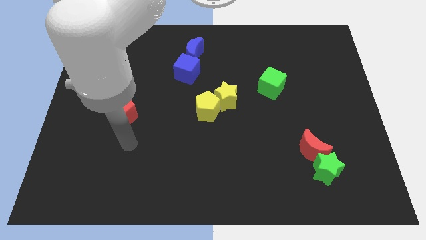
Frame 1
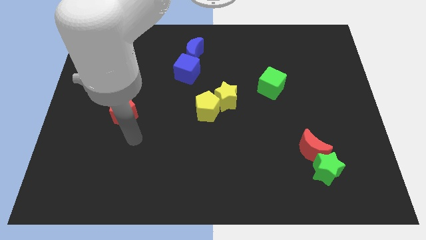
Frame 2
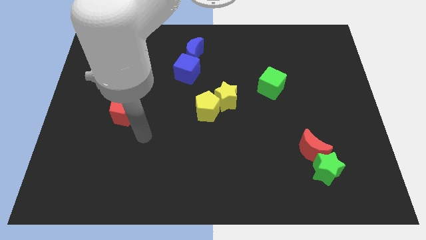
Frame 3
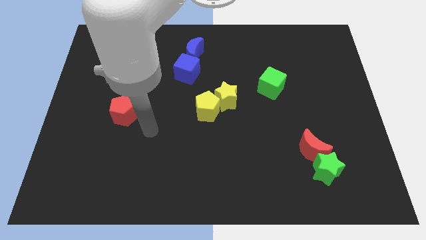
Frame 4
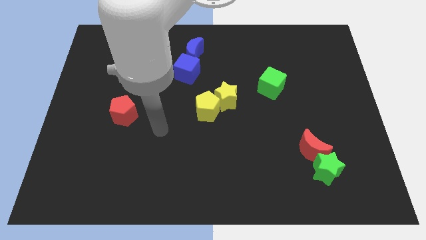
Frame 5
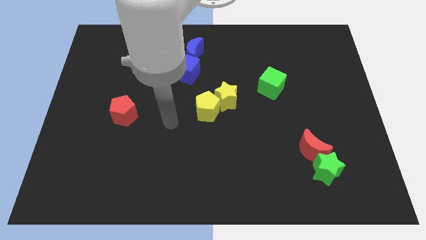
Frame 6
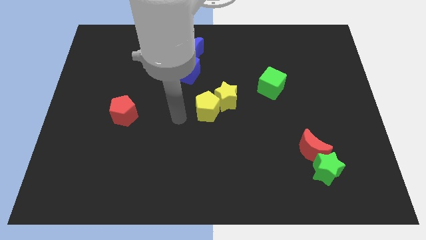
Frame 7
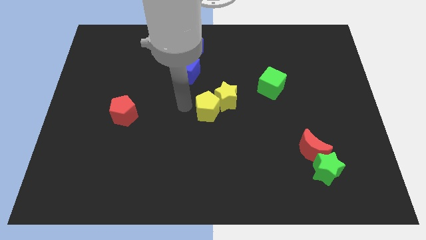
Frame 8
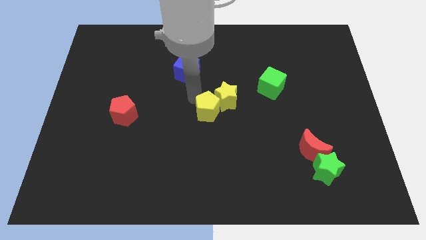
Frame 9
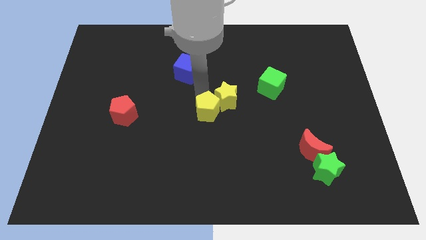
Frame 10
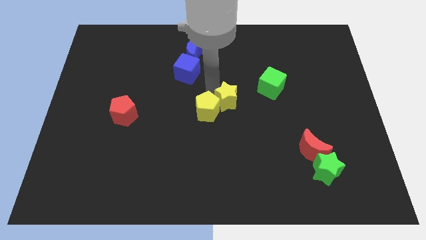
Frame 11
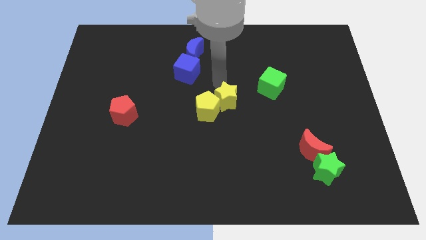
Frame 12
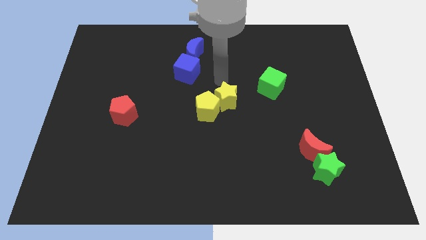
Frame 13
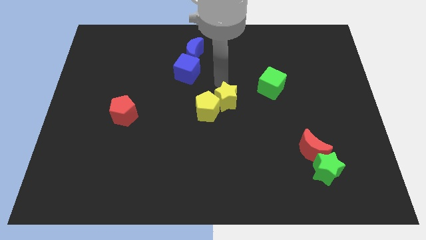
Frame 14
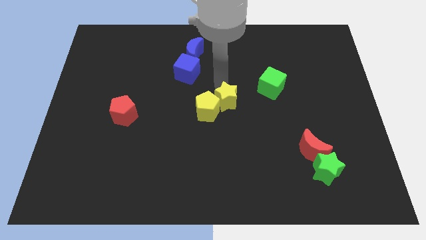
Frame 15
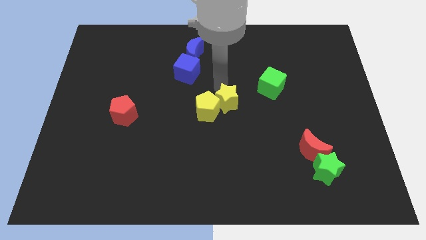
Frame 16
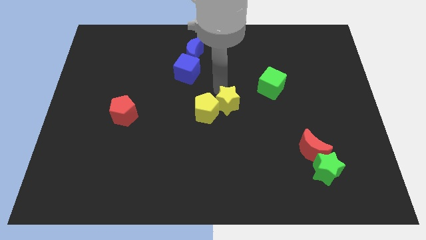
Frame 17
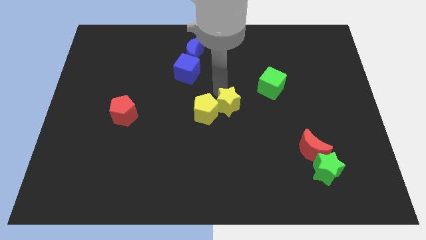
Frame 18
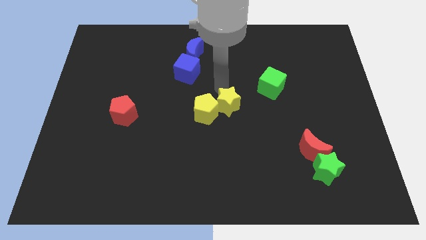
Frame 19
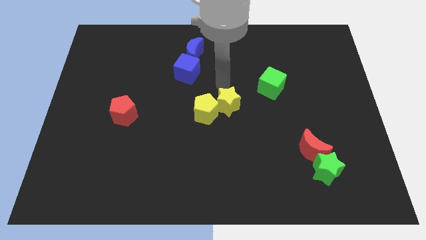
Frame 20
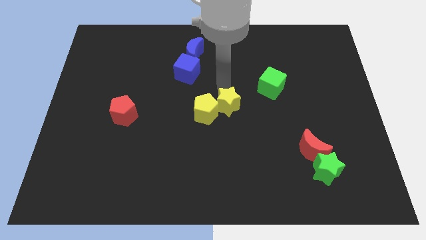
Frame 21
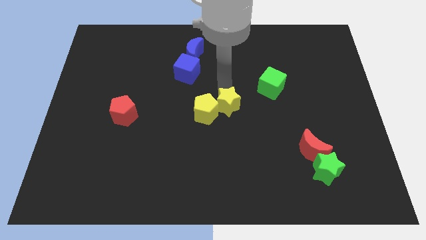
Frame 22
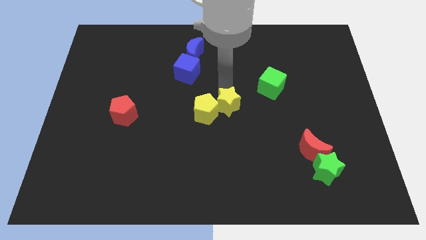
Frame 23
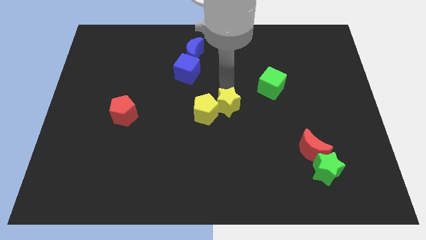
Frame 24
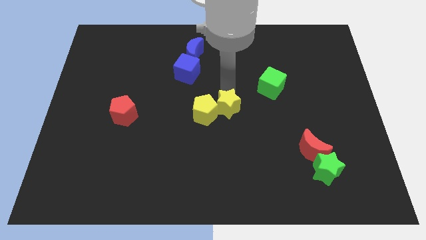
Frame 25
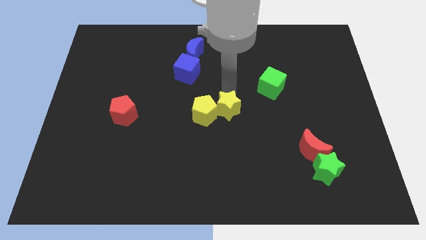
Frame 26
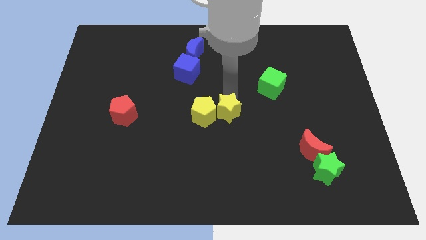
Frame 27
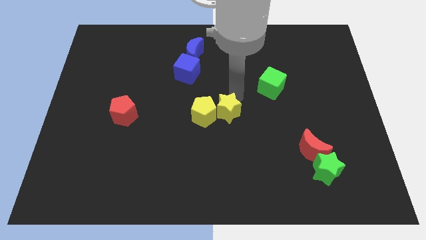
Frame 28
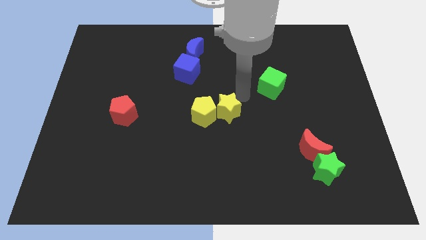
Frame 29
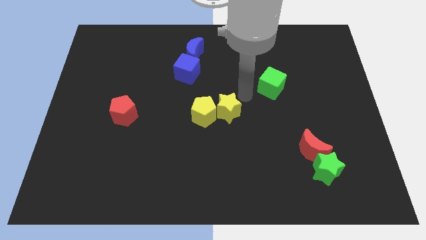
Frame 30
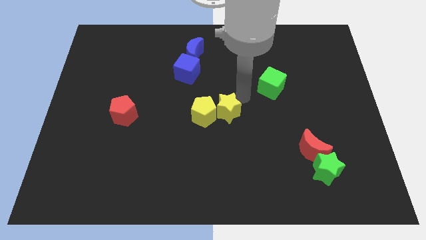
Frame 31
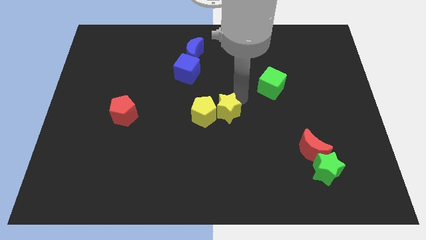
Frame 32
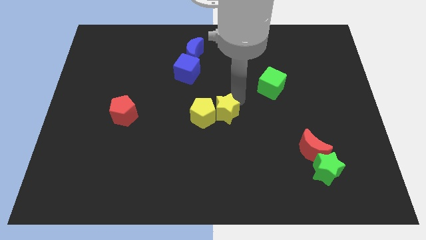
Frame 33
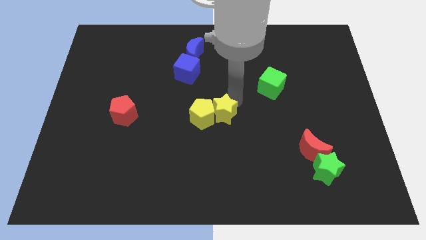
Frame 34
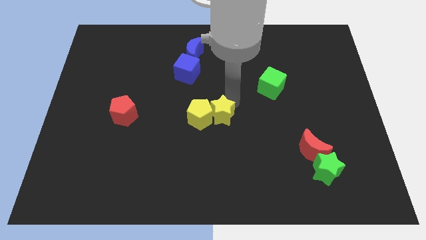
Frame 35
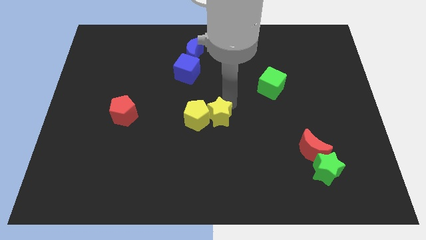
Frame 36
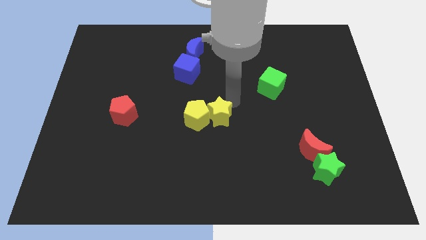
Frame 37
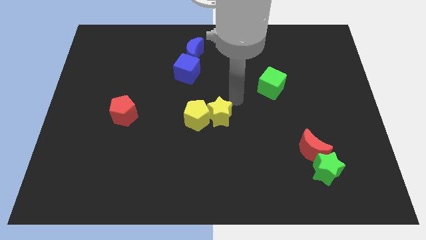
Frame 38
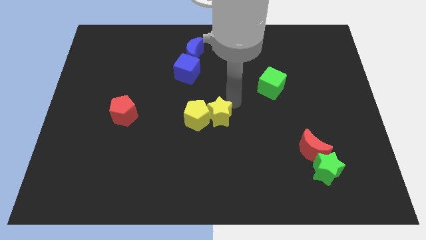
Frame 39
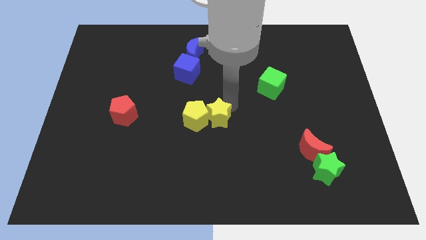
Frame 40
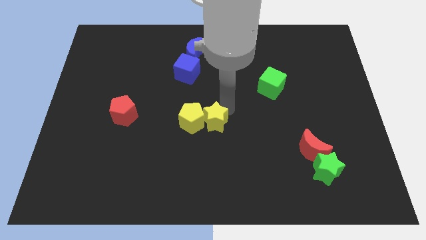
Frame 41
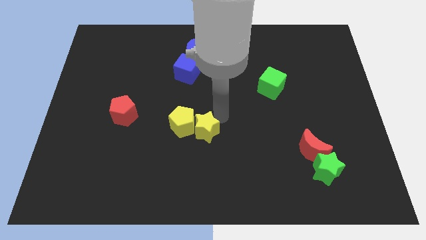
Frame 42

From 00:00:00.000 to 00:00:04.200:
move the yellow star down and then to the left a bit

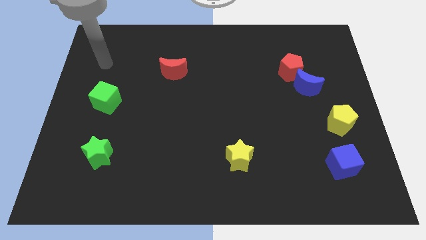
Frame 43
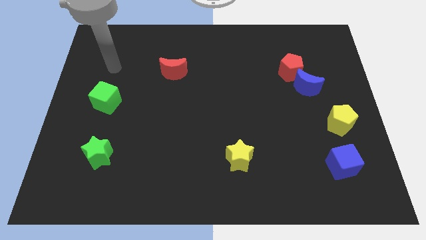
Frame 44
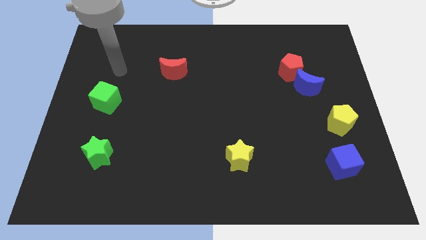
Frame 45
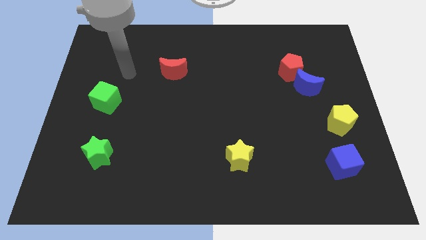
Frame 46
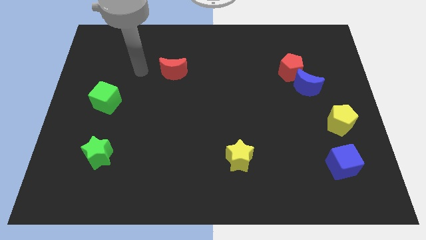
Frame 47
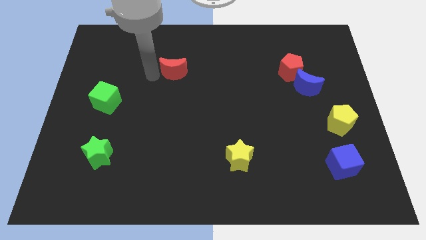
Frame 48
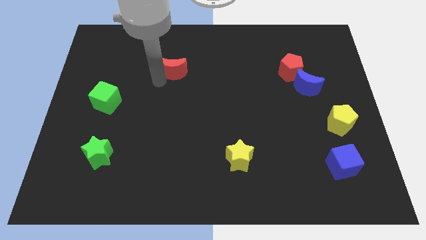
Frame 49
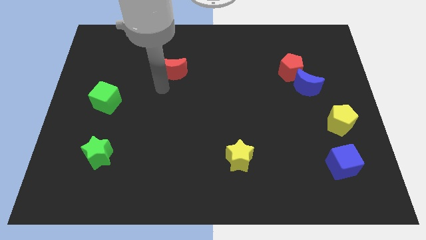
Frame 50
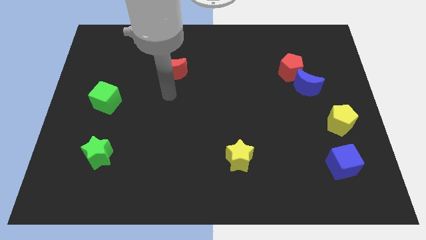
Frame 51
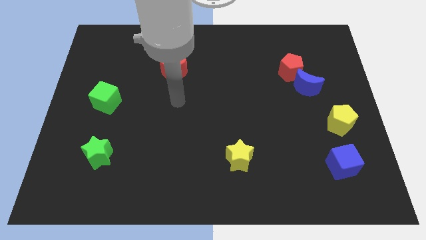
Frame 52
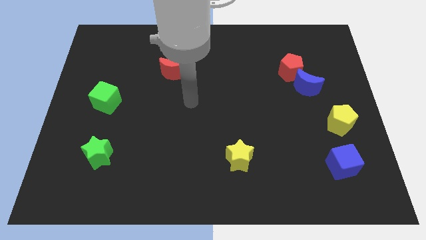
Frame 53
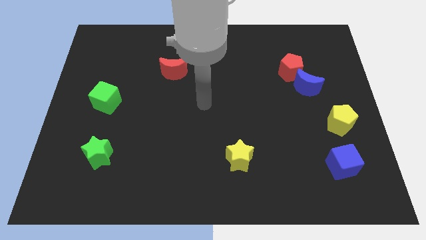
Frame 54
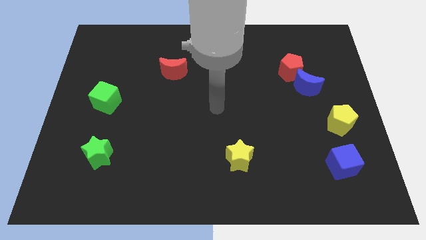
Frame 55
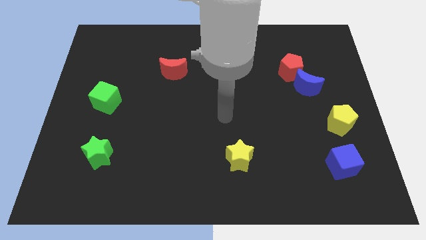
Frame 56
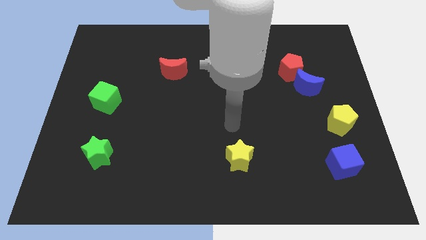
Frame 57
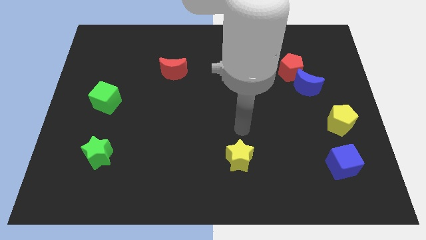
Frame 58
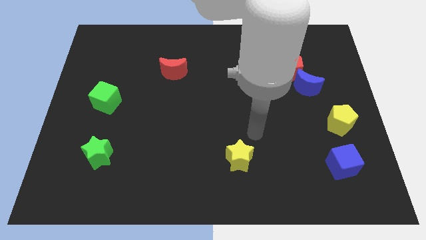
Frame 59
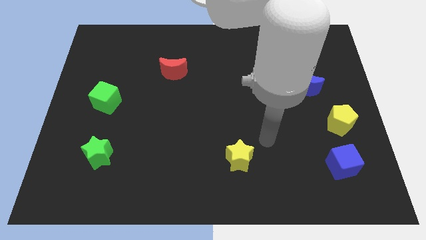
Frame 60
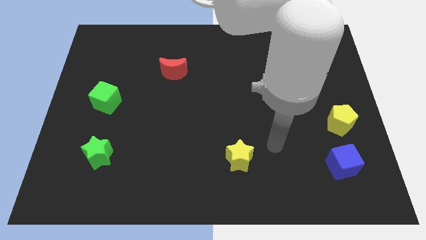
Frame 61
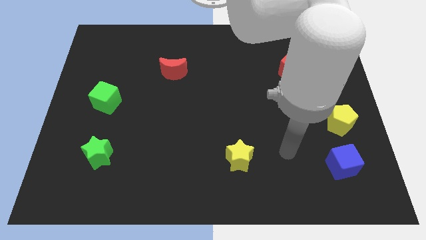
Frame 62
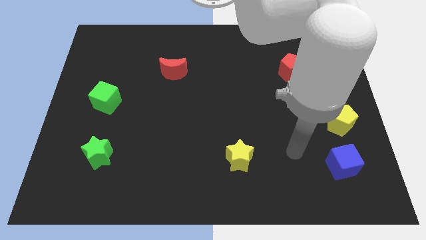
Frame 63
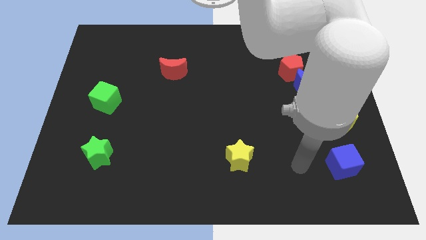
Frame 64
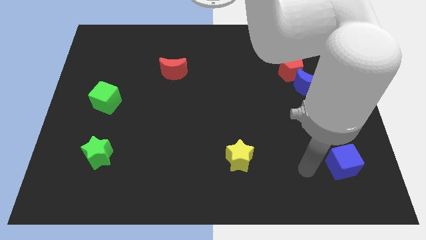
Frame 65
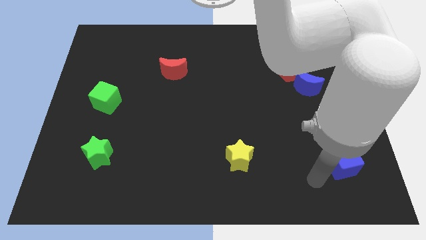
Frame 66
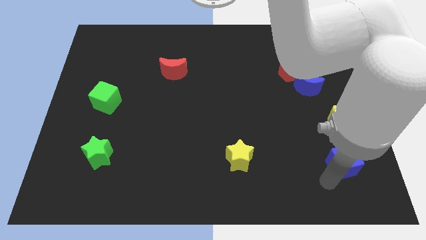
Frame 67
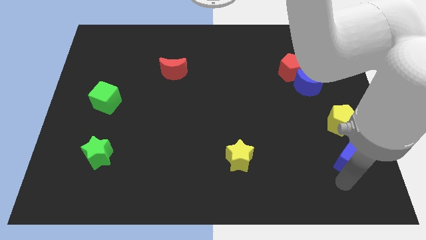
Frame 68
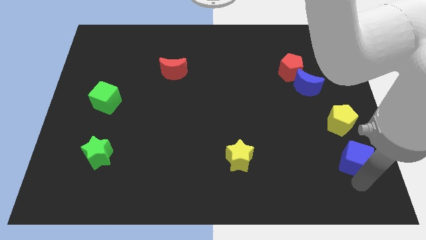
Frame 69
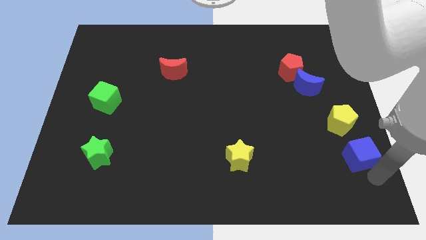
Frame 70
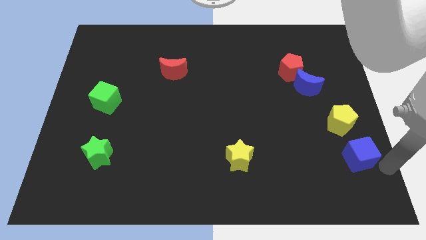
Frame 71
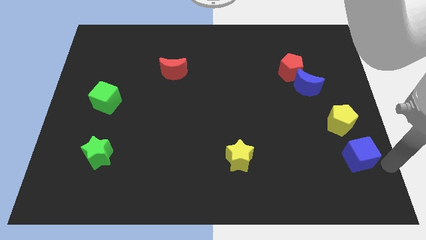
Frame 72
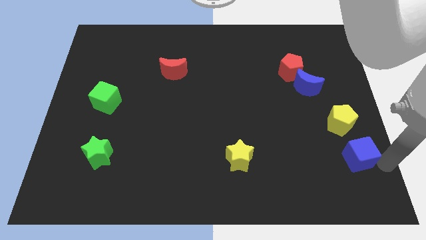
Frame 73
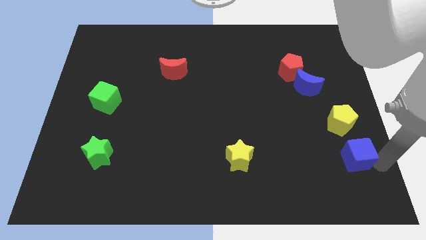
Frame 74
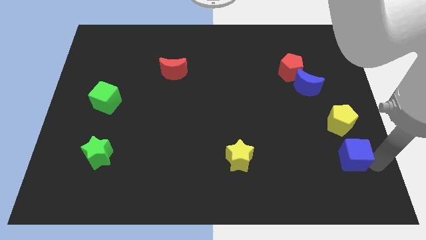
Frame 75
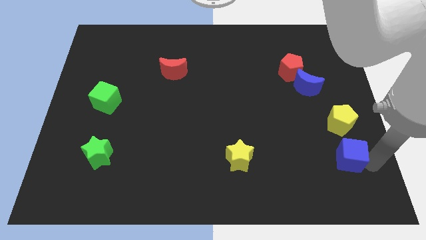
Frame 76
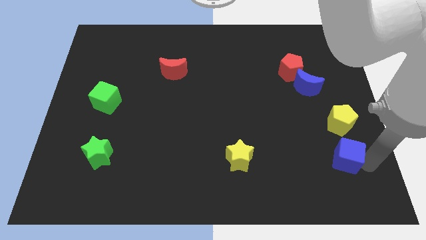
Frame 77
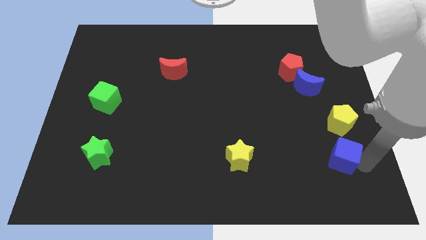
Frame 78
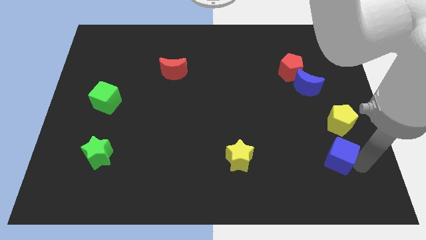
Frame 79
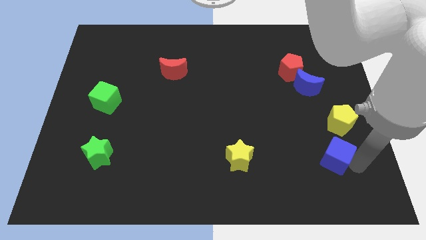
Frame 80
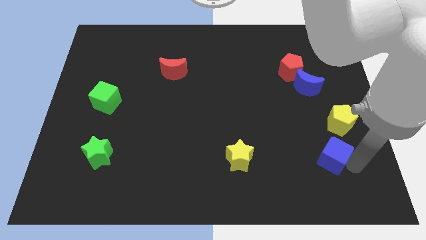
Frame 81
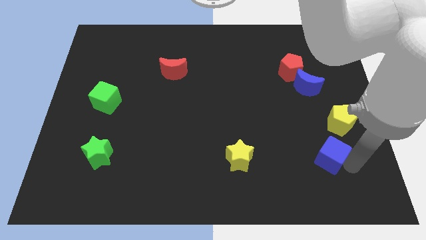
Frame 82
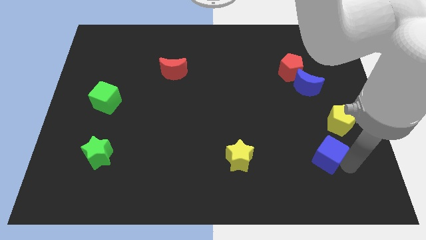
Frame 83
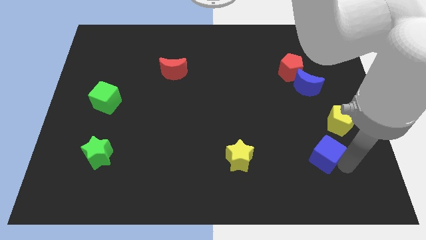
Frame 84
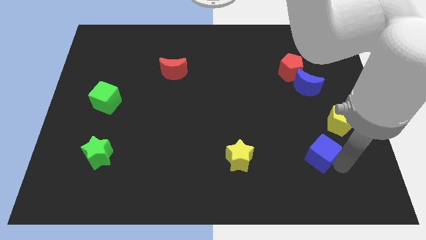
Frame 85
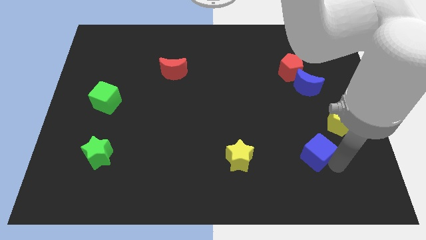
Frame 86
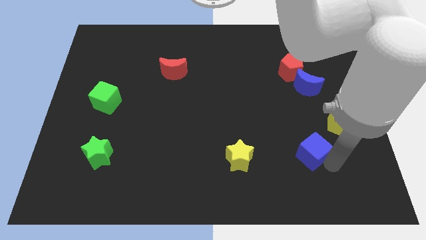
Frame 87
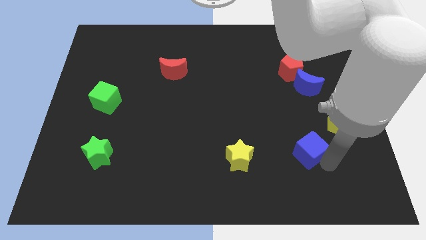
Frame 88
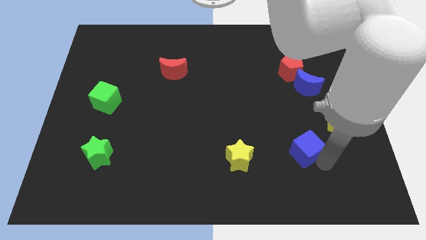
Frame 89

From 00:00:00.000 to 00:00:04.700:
slightly move the blue cube up and then to the left
